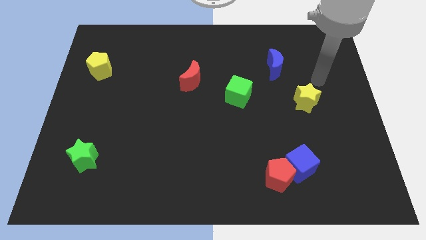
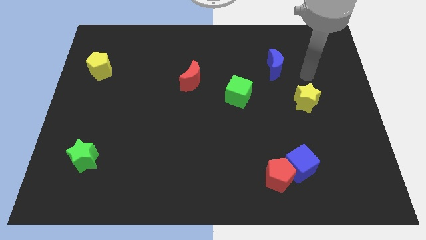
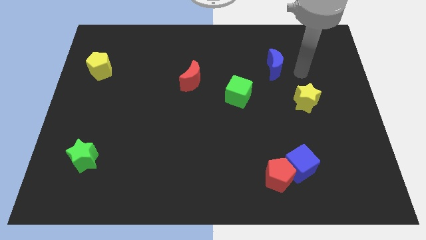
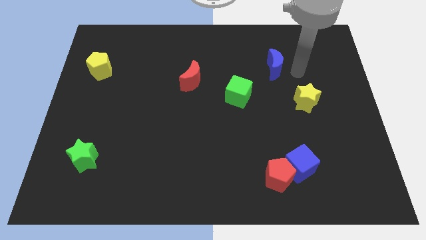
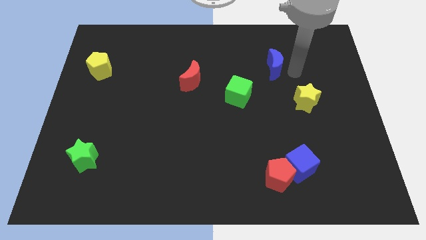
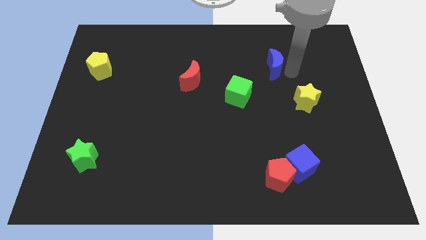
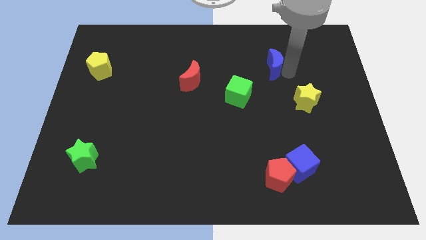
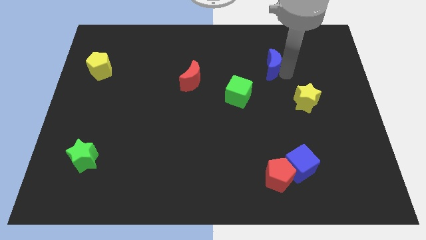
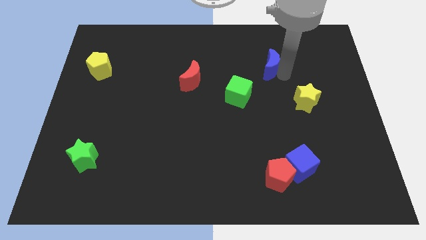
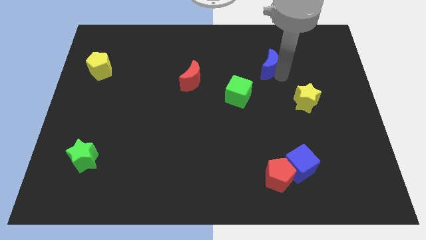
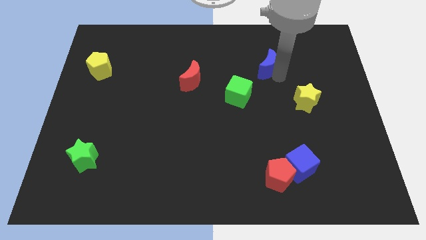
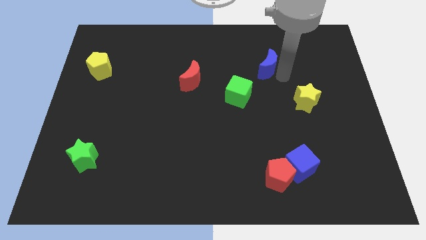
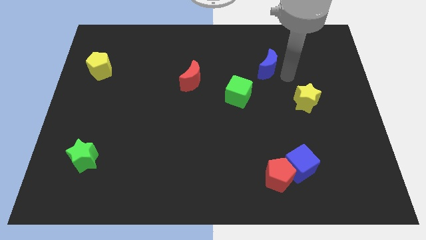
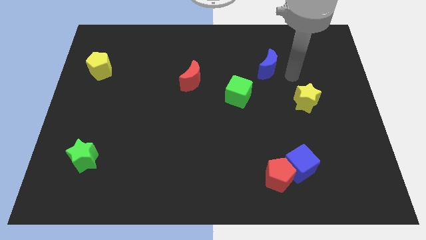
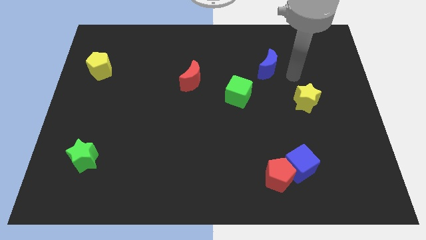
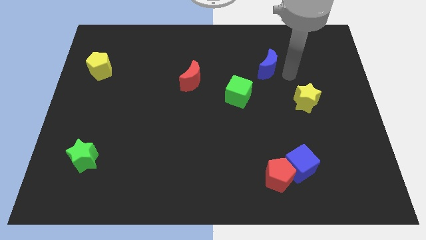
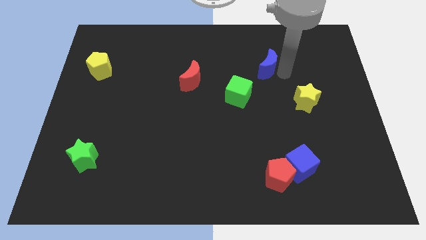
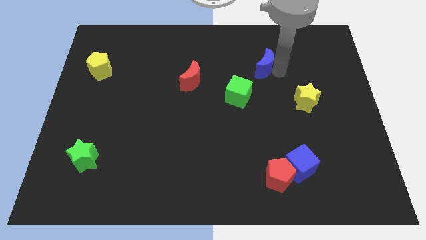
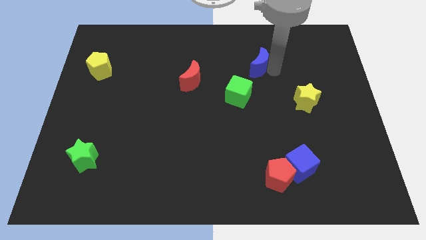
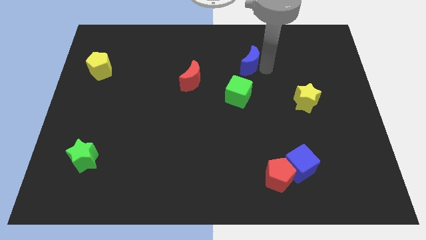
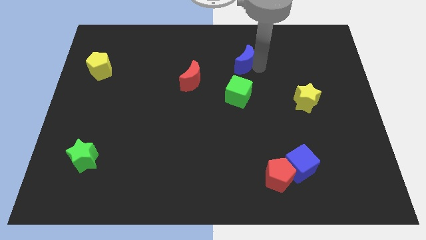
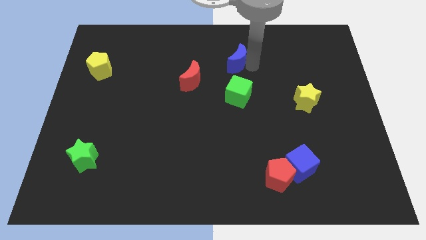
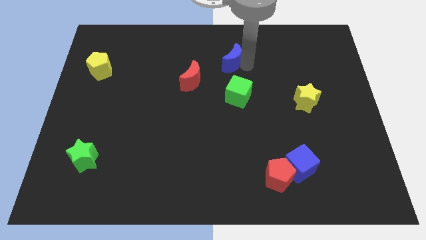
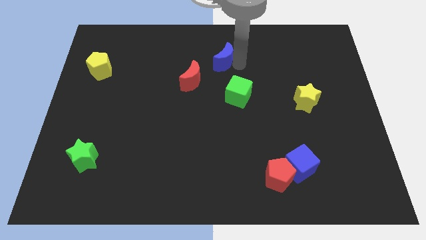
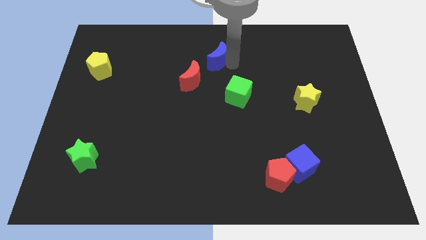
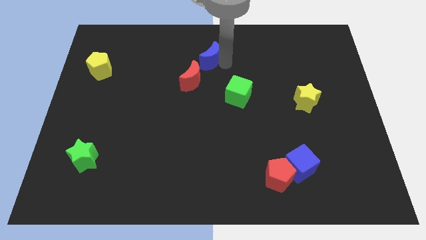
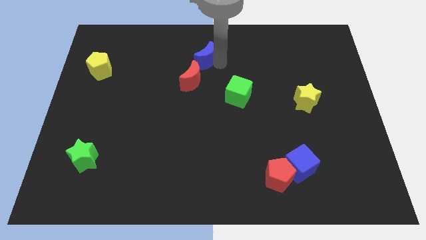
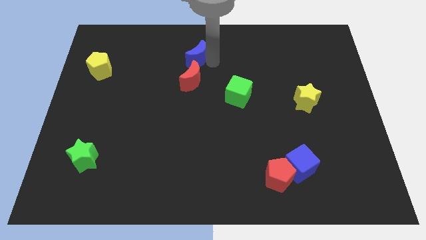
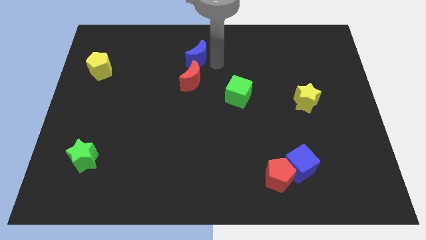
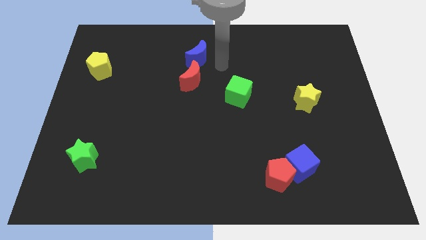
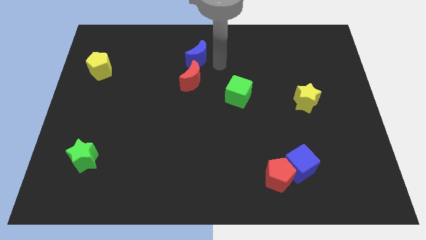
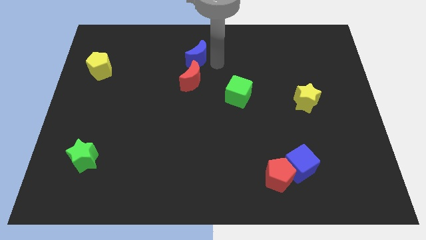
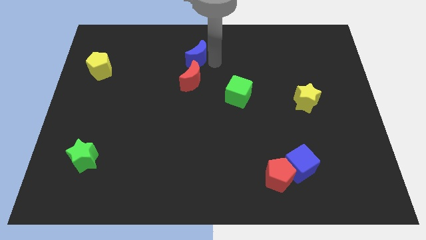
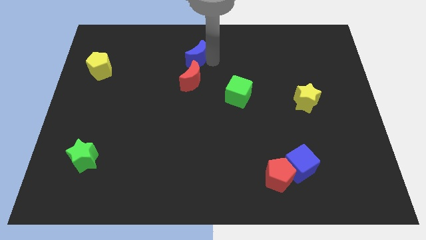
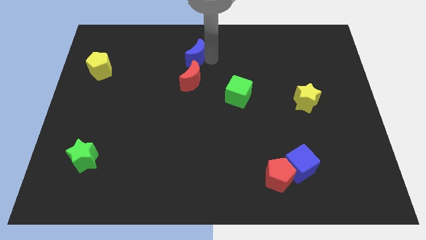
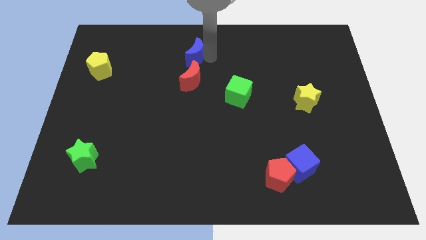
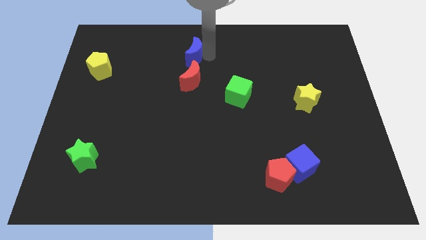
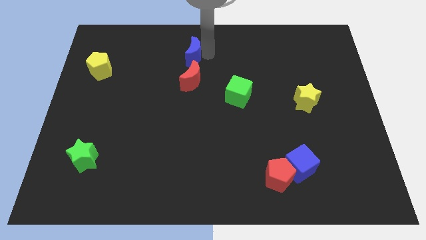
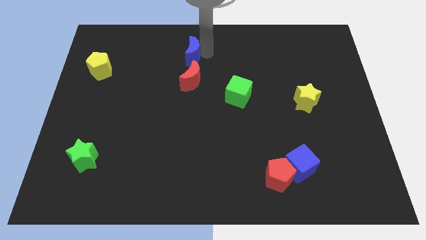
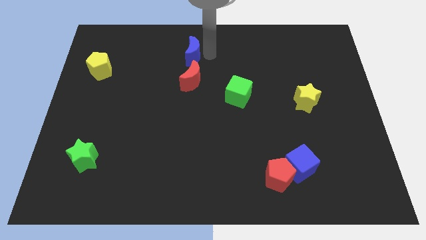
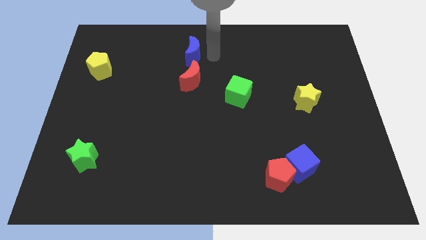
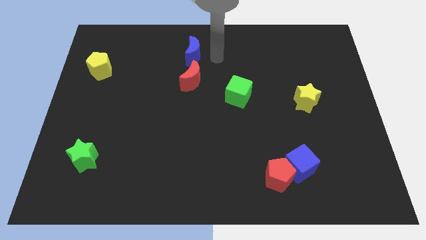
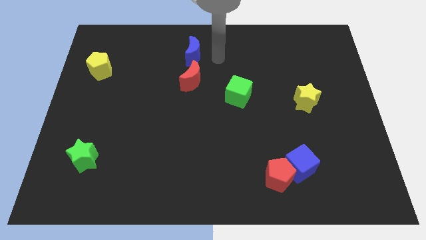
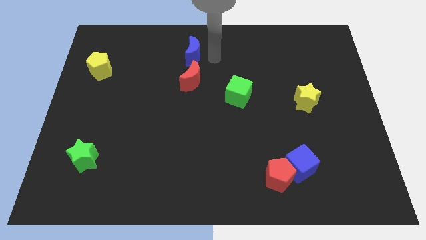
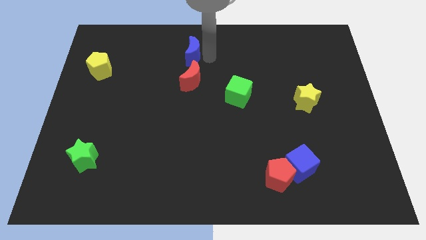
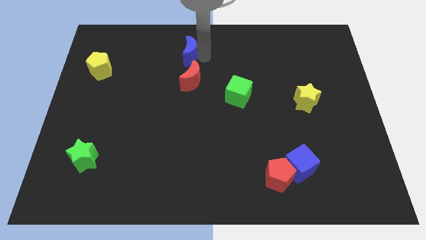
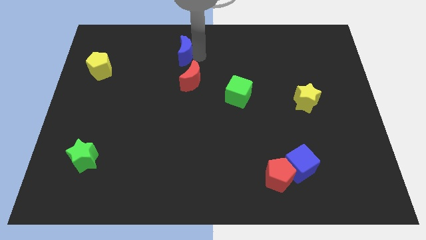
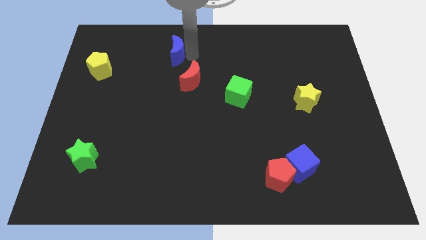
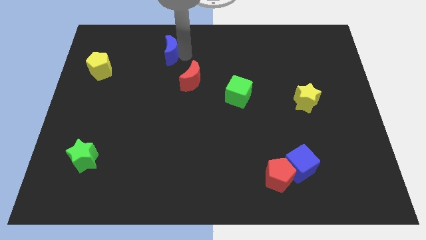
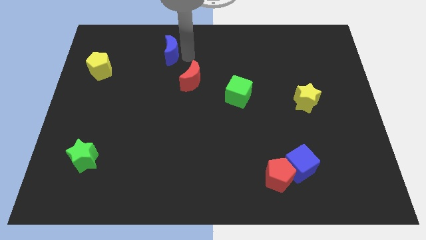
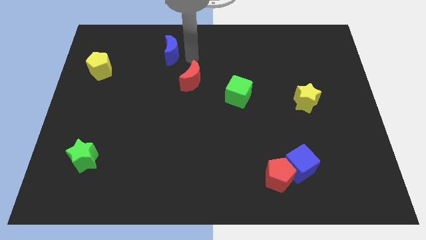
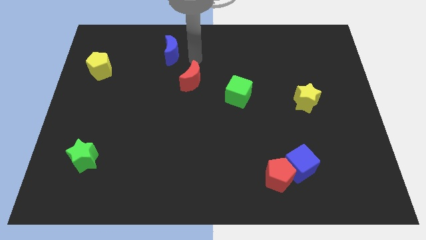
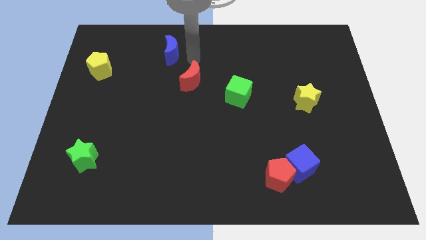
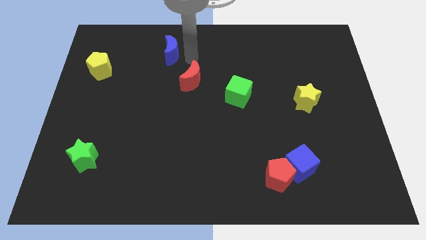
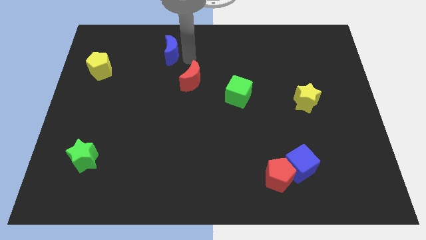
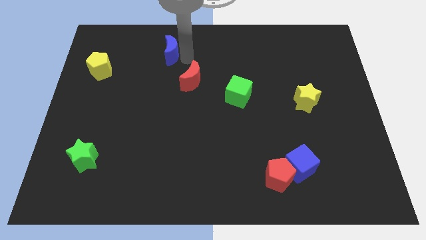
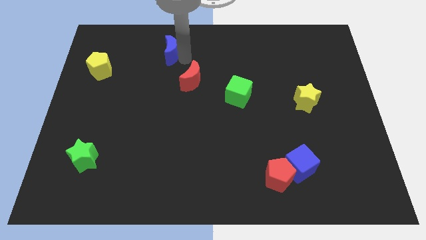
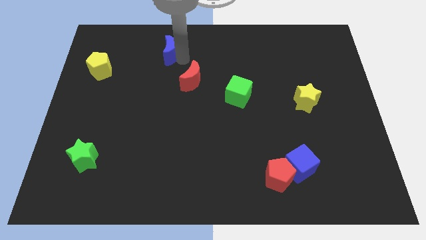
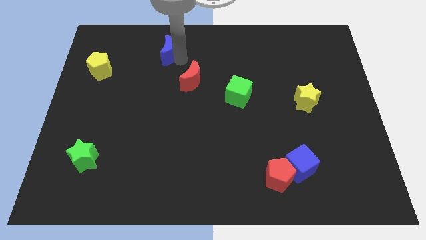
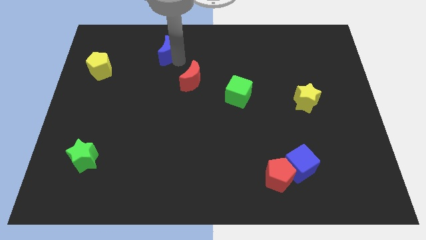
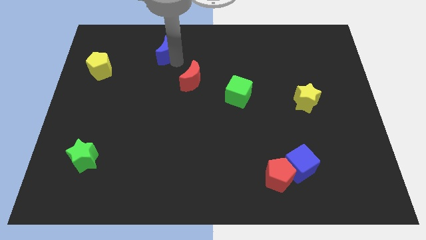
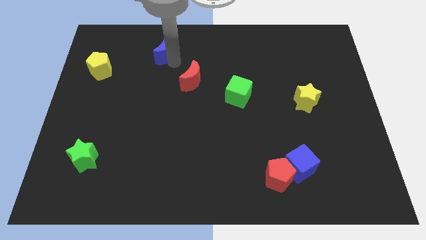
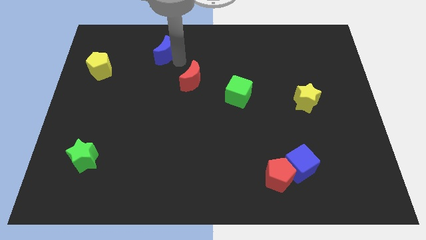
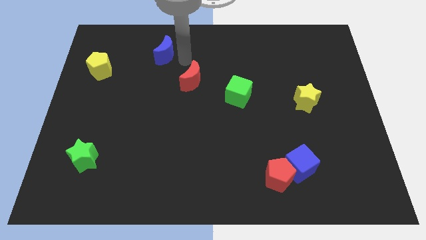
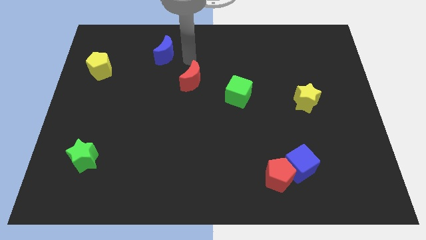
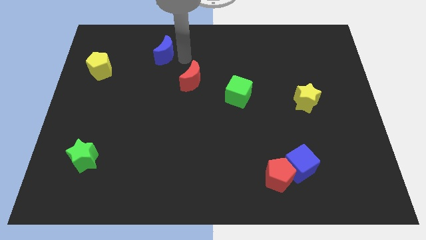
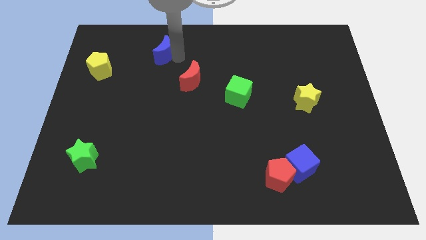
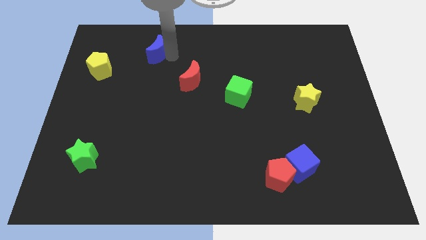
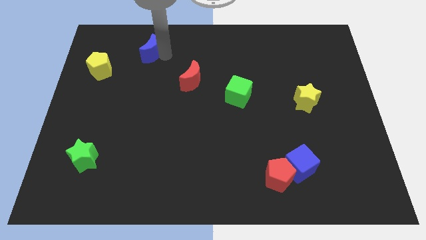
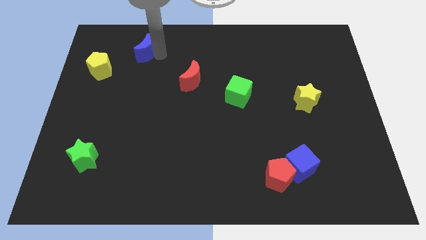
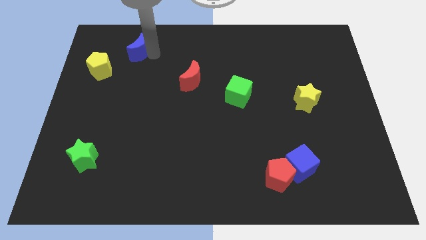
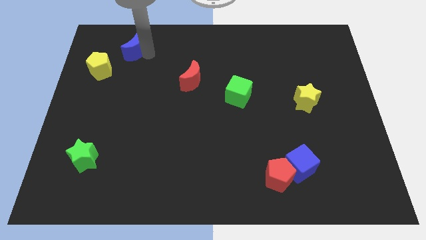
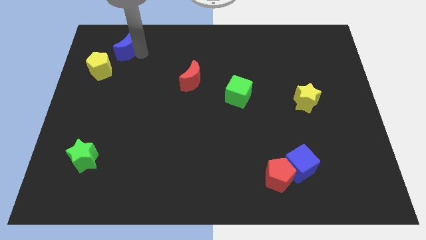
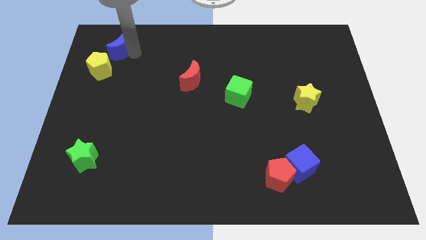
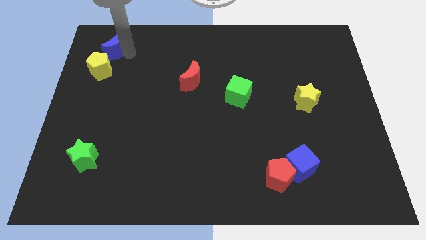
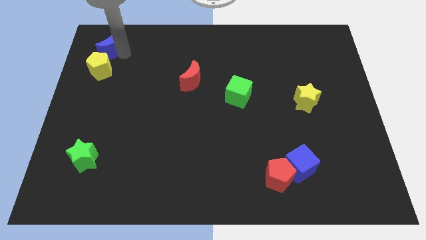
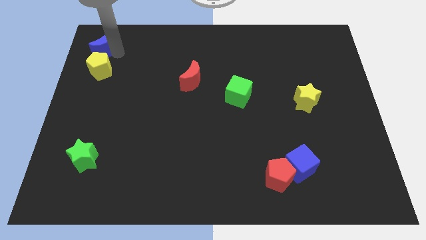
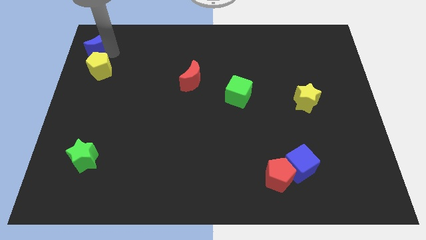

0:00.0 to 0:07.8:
slide the blue moon to the top left corner
